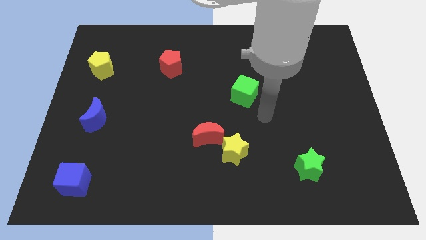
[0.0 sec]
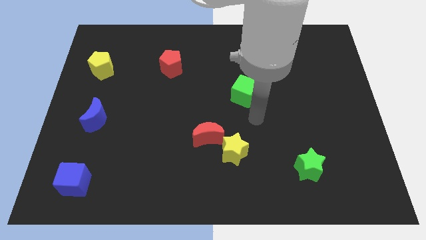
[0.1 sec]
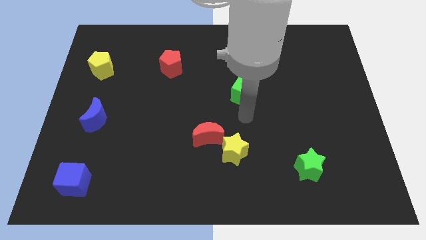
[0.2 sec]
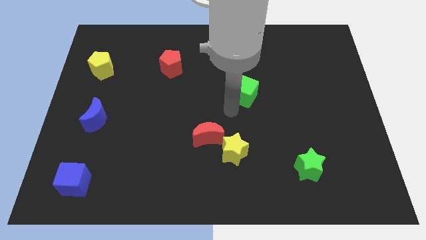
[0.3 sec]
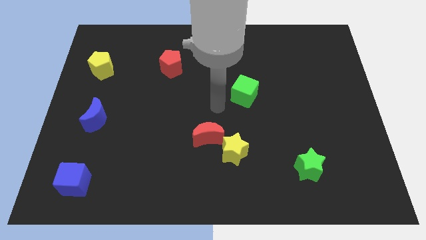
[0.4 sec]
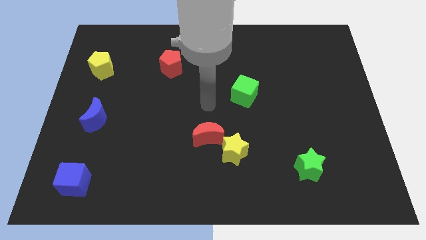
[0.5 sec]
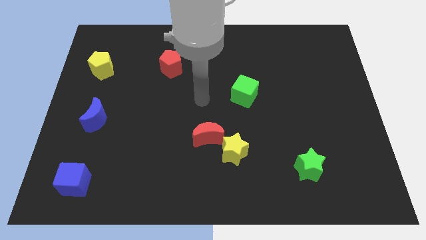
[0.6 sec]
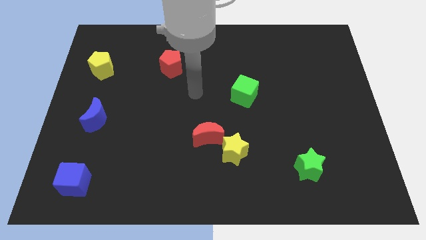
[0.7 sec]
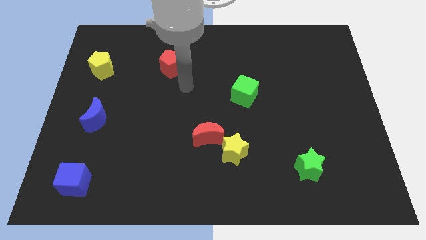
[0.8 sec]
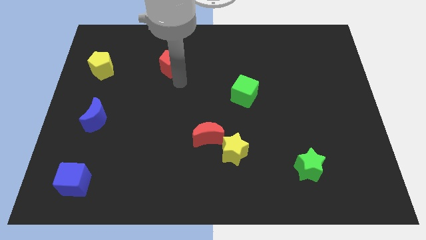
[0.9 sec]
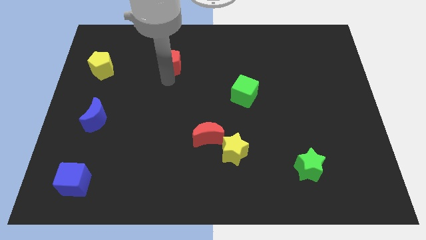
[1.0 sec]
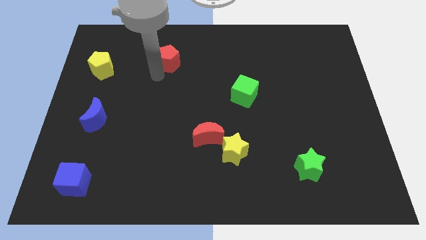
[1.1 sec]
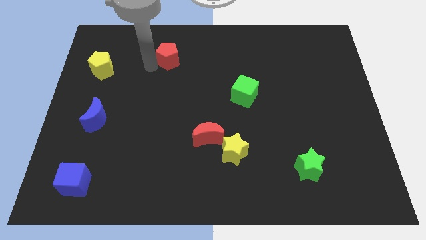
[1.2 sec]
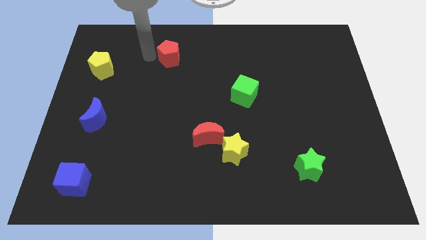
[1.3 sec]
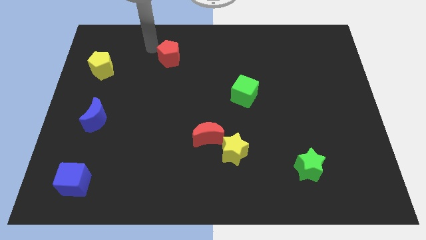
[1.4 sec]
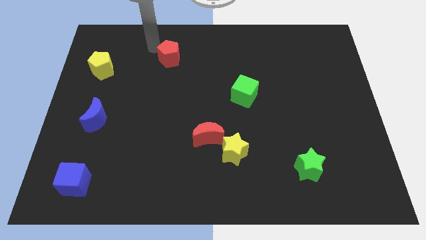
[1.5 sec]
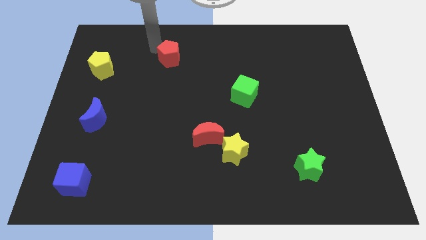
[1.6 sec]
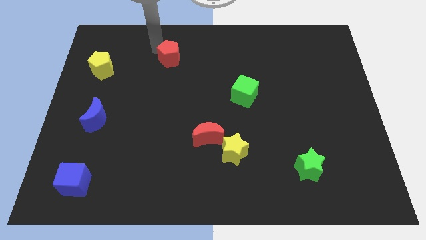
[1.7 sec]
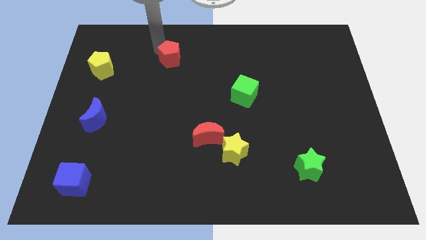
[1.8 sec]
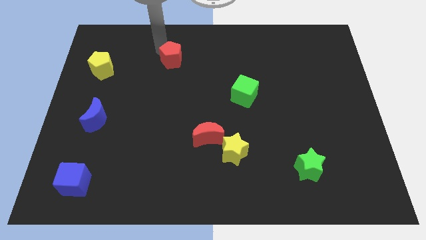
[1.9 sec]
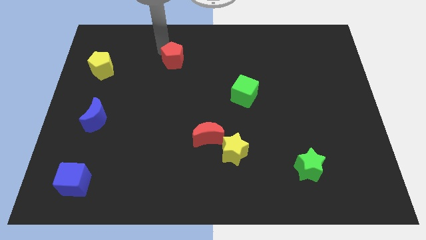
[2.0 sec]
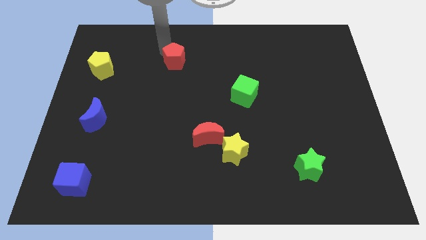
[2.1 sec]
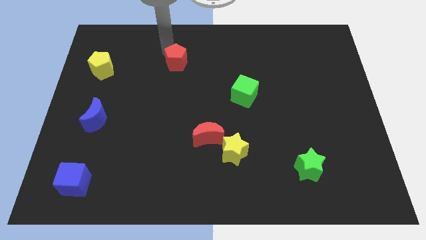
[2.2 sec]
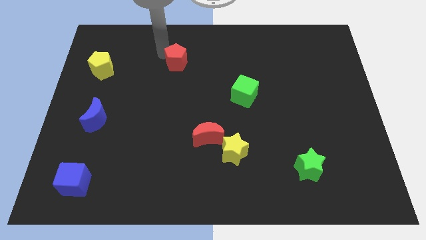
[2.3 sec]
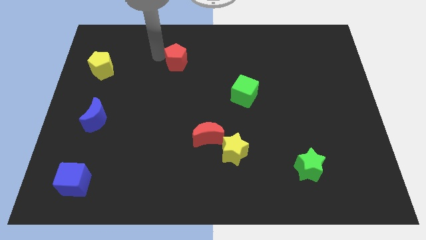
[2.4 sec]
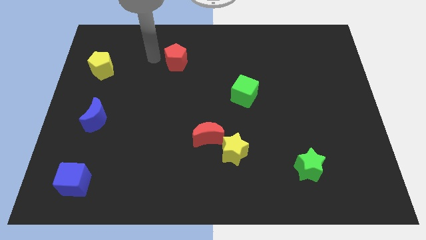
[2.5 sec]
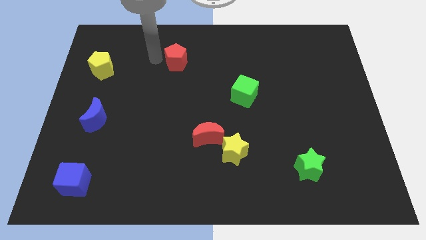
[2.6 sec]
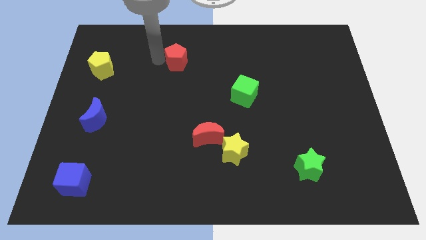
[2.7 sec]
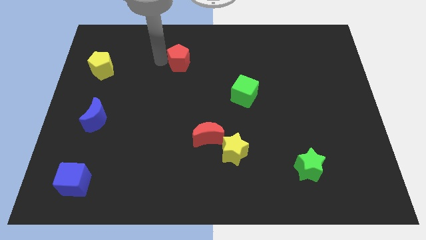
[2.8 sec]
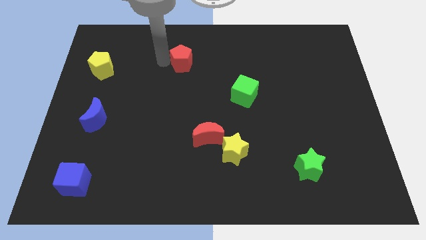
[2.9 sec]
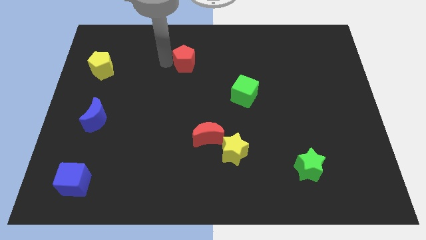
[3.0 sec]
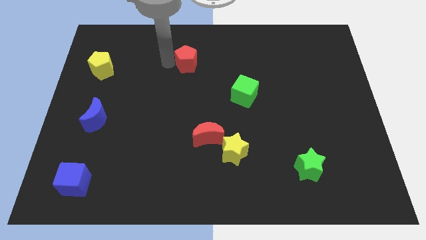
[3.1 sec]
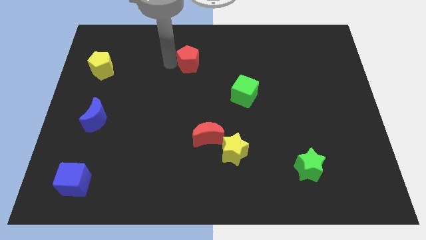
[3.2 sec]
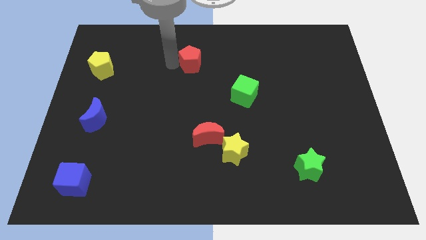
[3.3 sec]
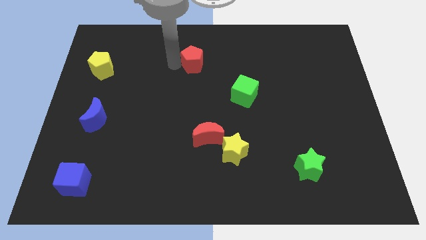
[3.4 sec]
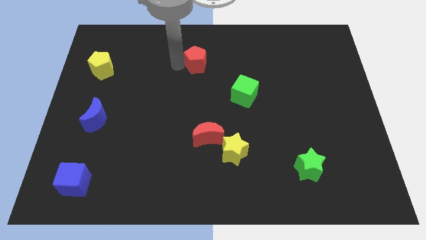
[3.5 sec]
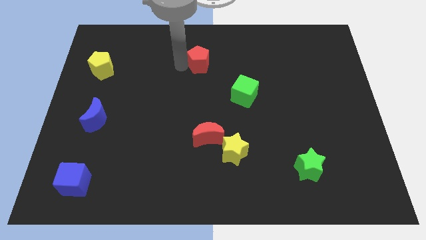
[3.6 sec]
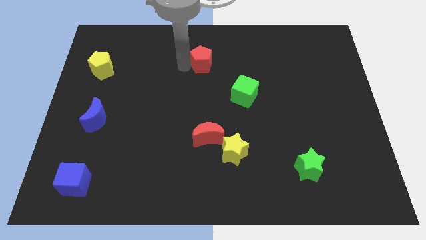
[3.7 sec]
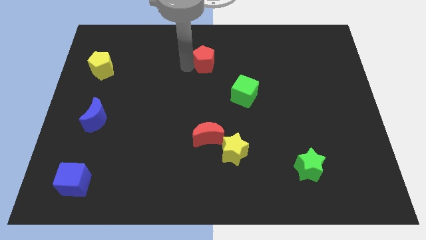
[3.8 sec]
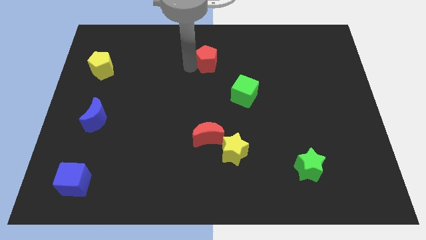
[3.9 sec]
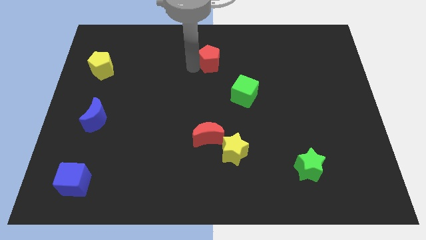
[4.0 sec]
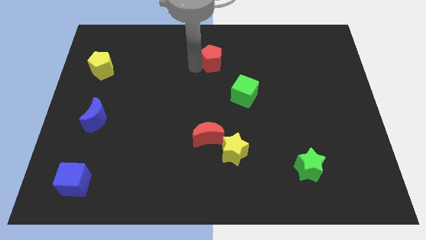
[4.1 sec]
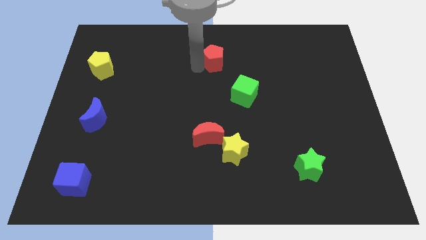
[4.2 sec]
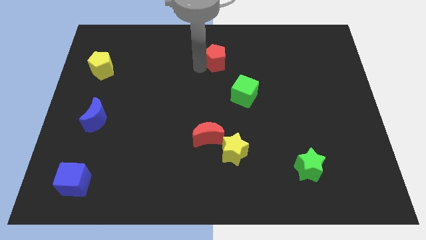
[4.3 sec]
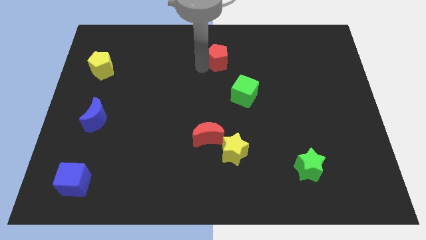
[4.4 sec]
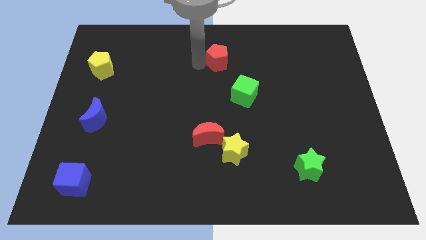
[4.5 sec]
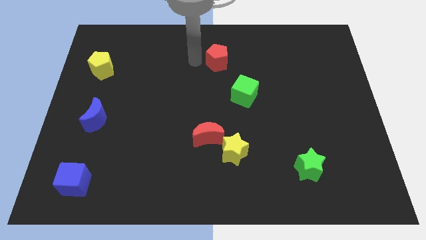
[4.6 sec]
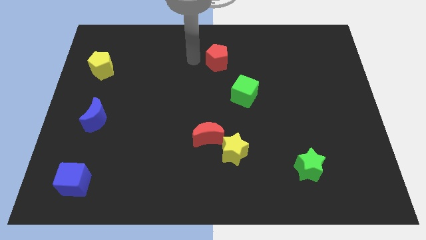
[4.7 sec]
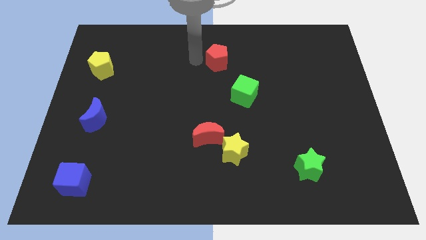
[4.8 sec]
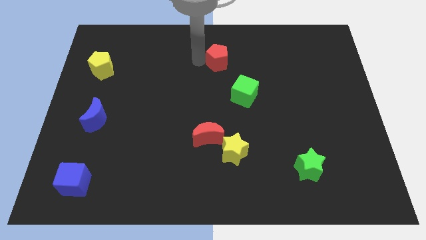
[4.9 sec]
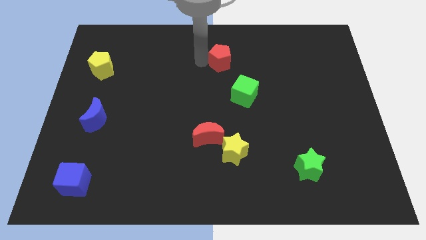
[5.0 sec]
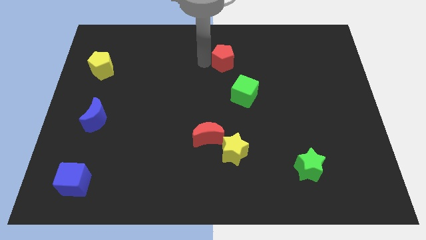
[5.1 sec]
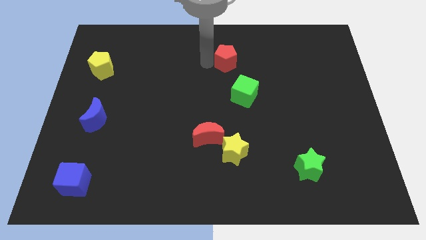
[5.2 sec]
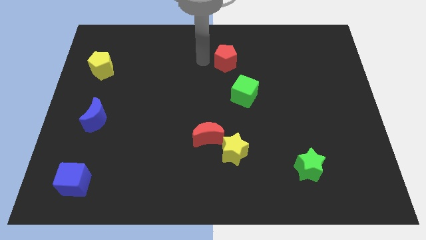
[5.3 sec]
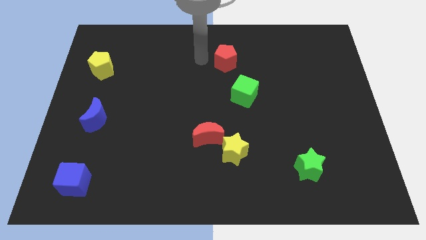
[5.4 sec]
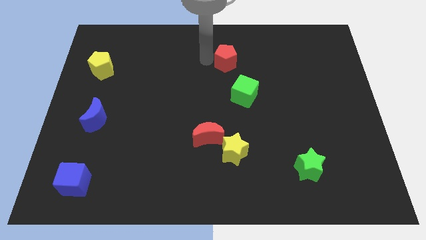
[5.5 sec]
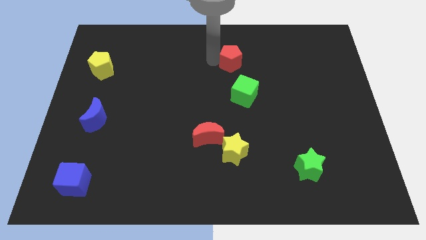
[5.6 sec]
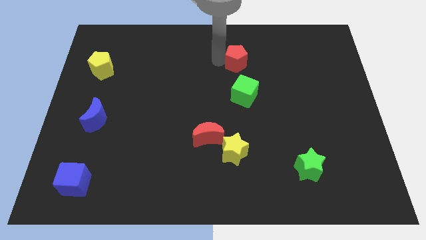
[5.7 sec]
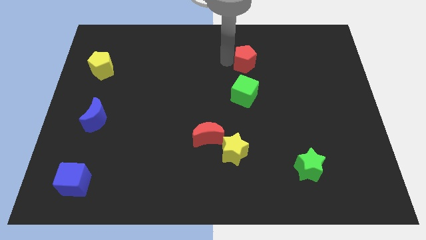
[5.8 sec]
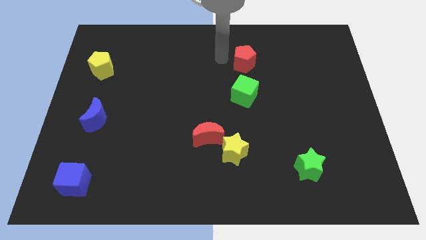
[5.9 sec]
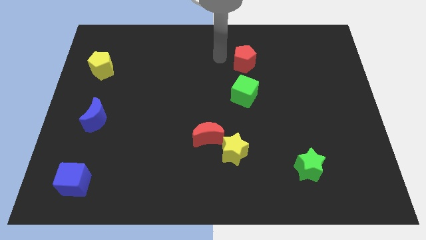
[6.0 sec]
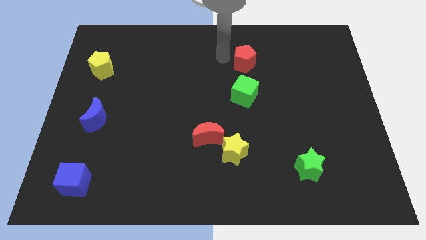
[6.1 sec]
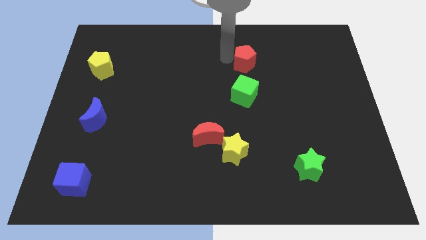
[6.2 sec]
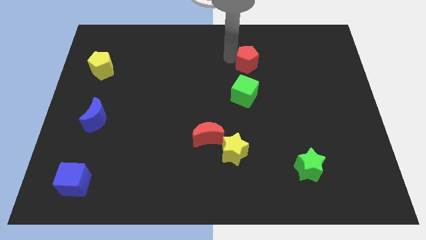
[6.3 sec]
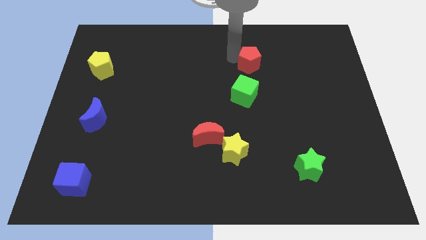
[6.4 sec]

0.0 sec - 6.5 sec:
slide the red pentagon right

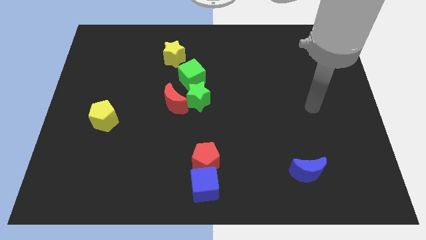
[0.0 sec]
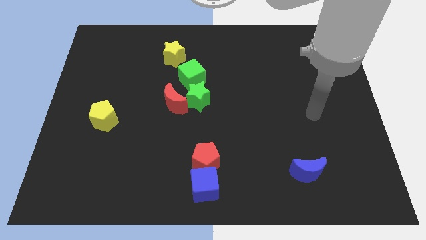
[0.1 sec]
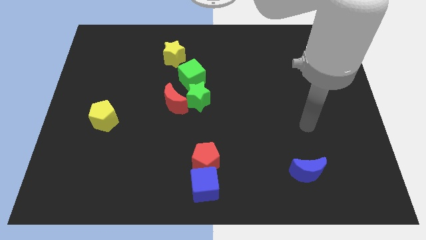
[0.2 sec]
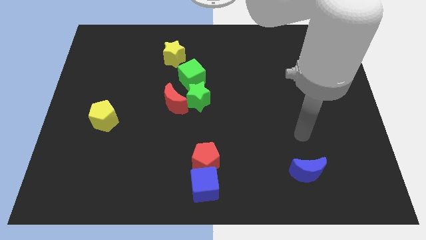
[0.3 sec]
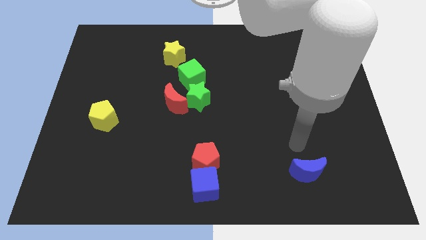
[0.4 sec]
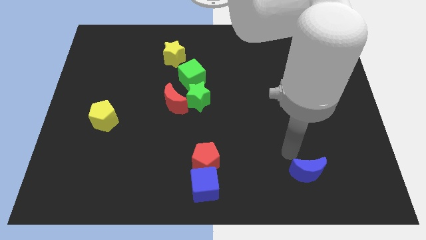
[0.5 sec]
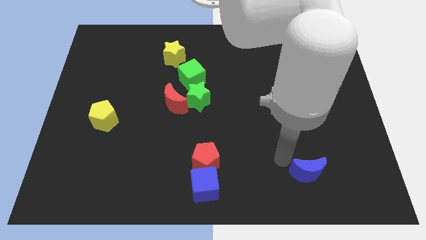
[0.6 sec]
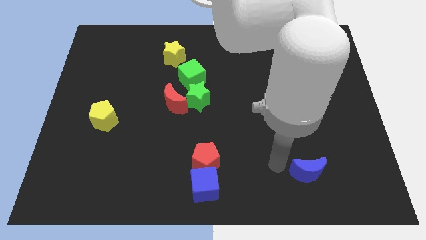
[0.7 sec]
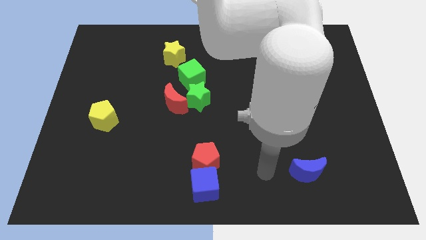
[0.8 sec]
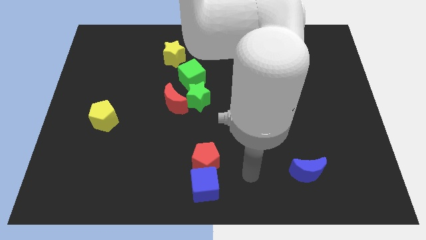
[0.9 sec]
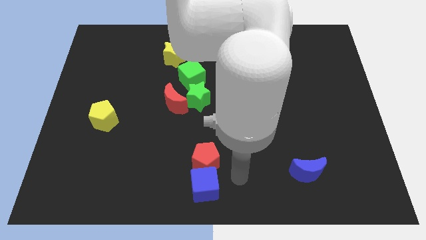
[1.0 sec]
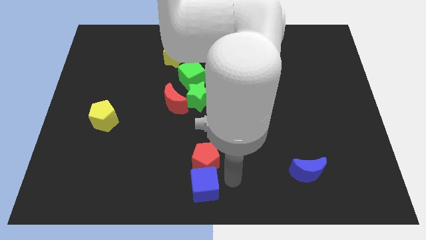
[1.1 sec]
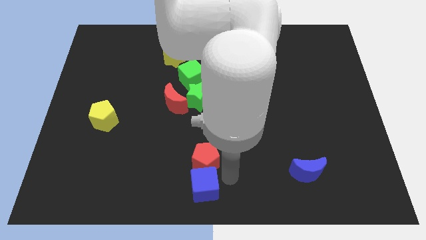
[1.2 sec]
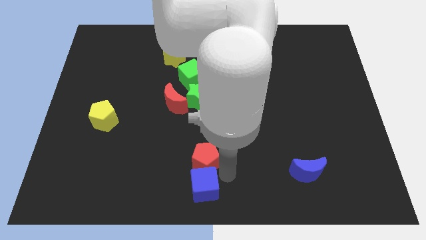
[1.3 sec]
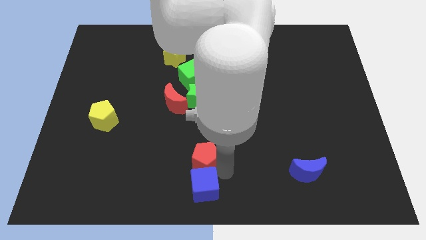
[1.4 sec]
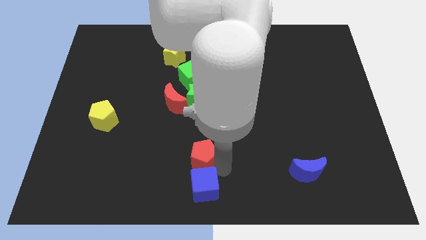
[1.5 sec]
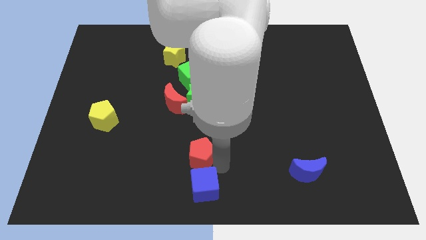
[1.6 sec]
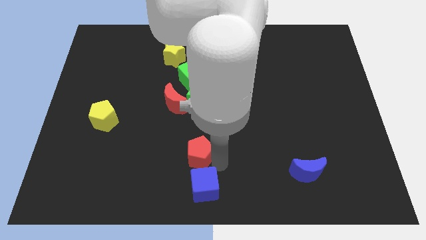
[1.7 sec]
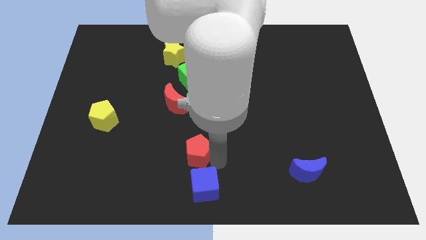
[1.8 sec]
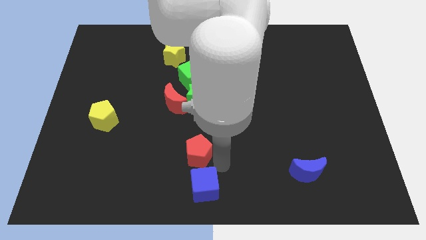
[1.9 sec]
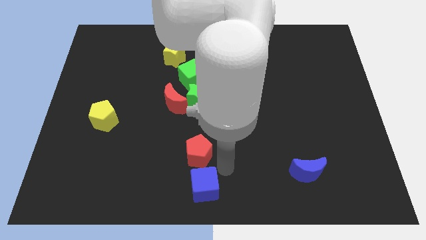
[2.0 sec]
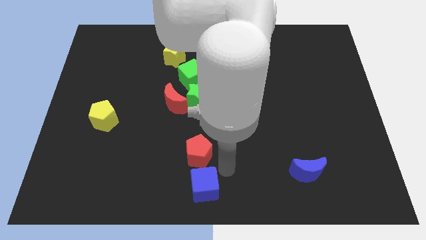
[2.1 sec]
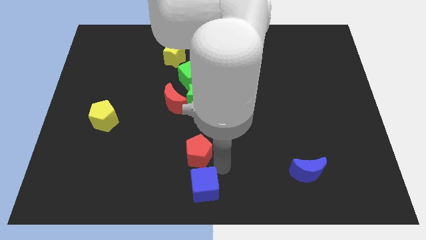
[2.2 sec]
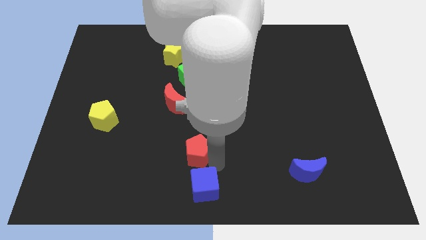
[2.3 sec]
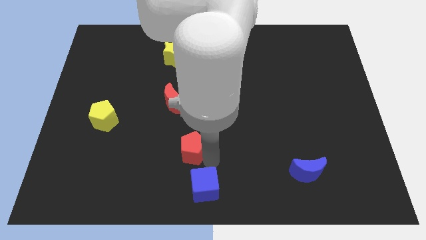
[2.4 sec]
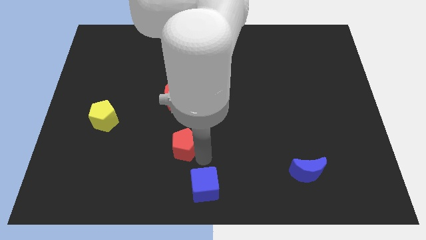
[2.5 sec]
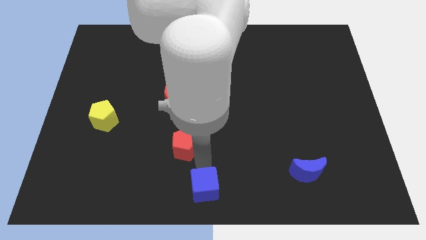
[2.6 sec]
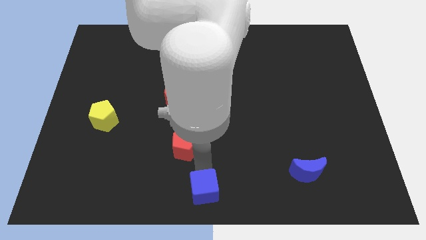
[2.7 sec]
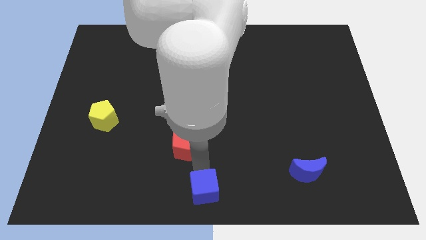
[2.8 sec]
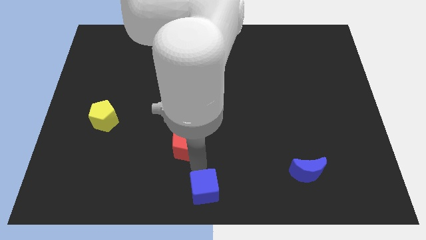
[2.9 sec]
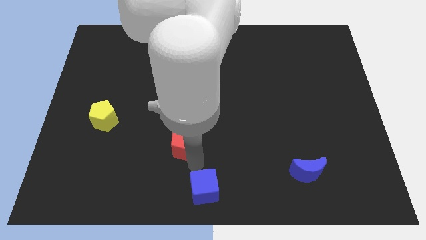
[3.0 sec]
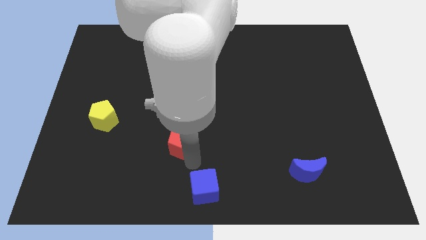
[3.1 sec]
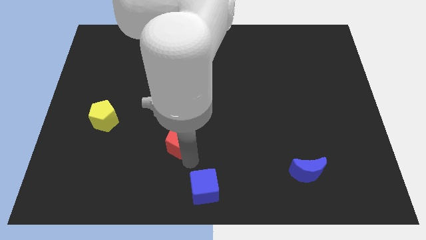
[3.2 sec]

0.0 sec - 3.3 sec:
slightly move the red pentagon upwards and to the left diagonally
